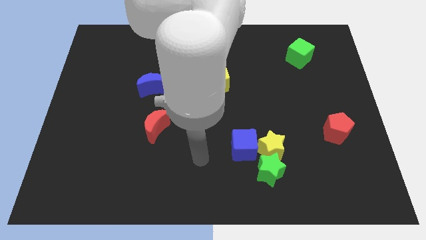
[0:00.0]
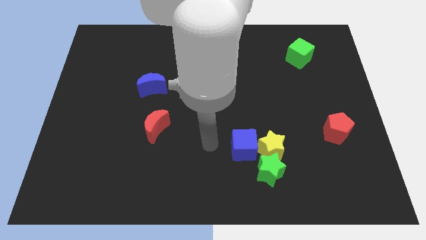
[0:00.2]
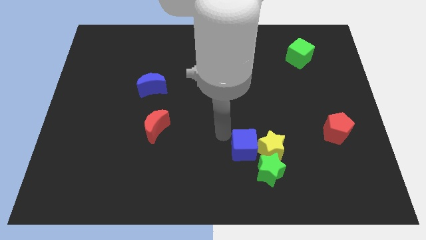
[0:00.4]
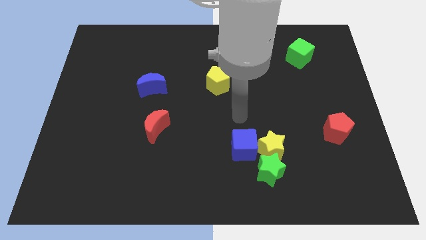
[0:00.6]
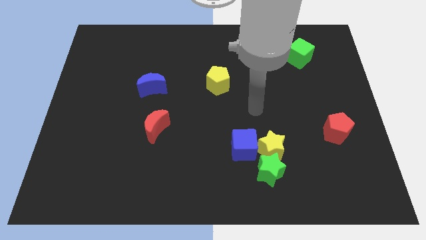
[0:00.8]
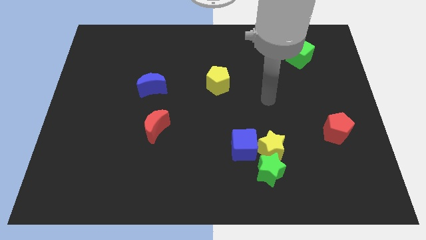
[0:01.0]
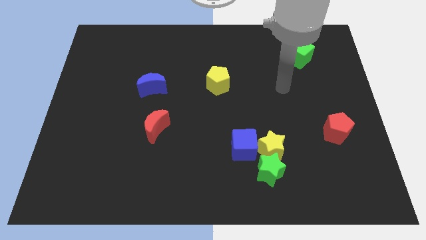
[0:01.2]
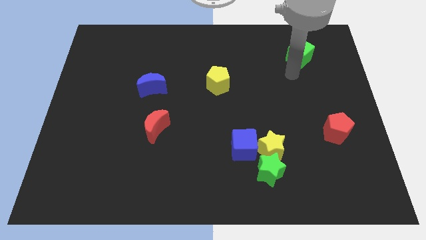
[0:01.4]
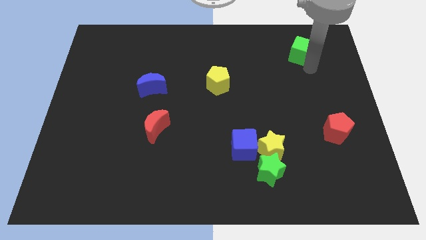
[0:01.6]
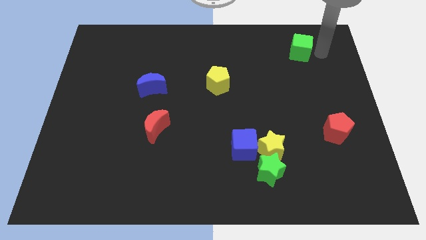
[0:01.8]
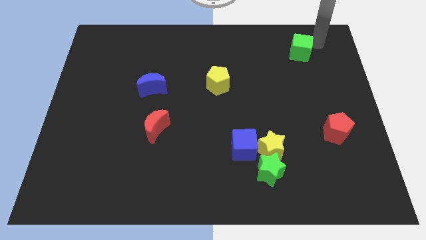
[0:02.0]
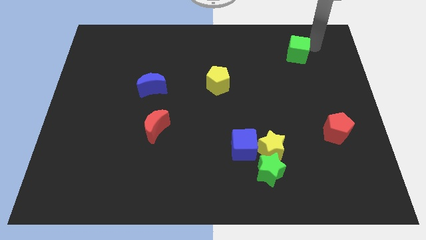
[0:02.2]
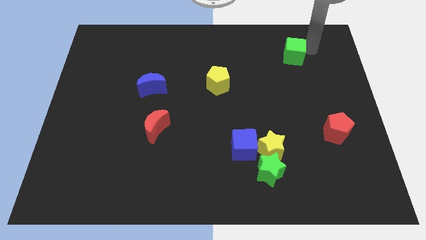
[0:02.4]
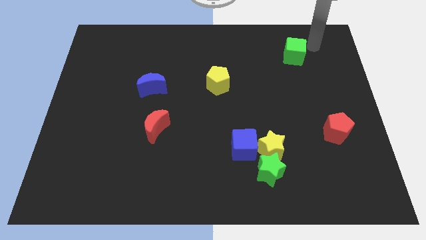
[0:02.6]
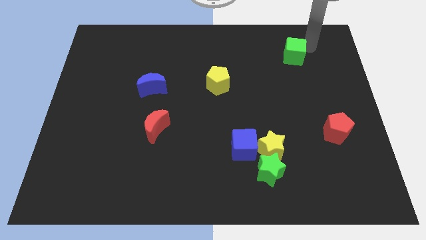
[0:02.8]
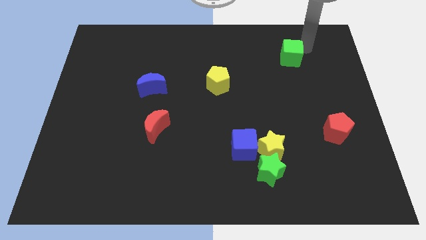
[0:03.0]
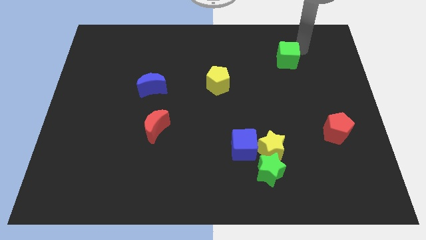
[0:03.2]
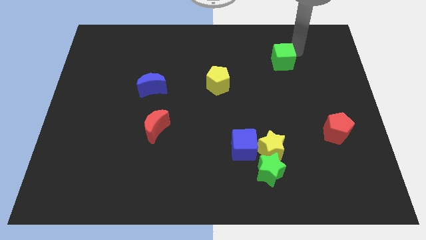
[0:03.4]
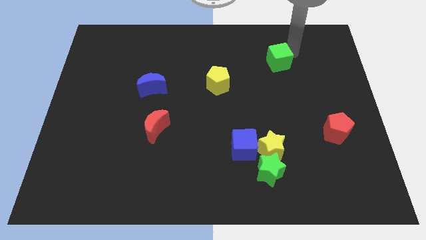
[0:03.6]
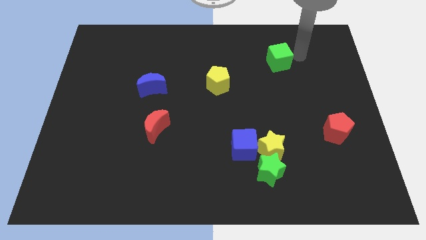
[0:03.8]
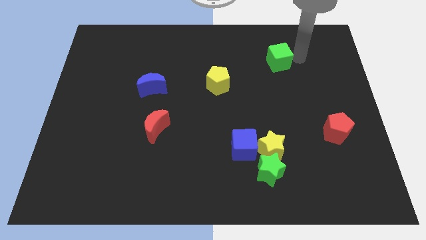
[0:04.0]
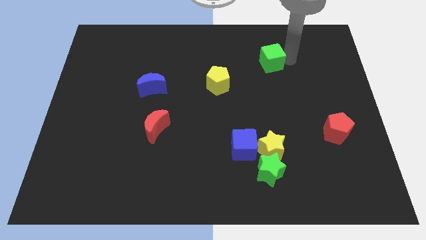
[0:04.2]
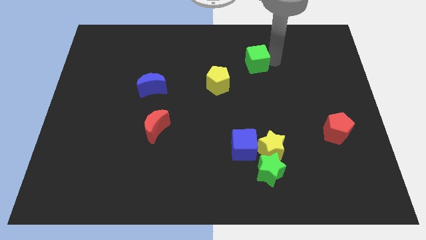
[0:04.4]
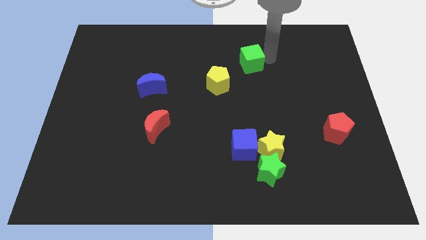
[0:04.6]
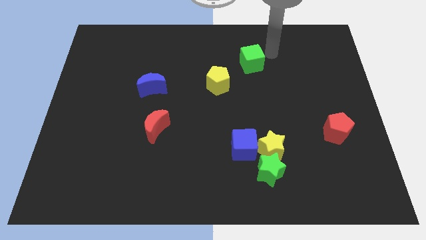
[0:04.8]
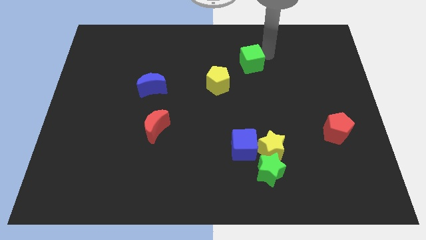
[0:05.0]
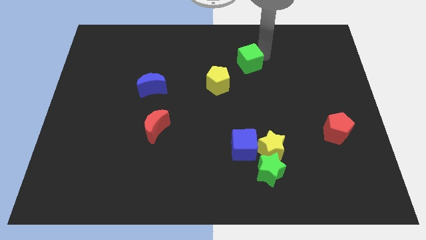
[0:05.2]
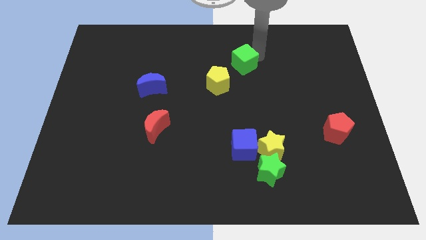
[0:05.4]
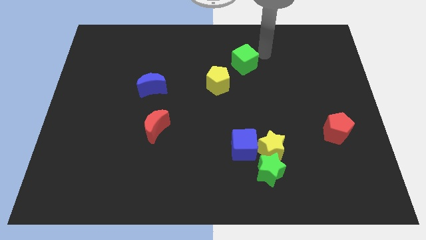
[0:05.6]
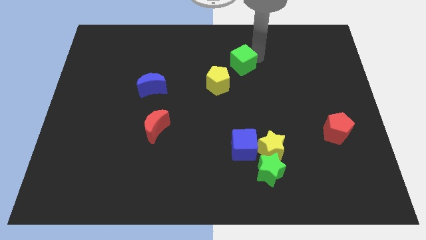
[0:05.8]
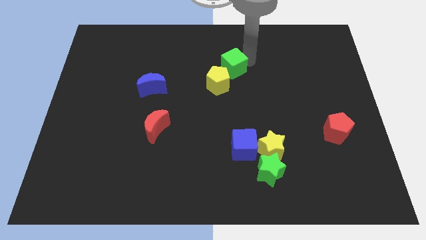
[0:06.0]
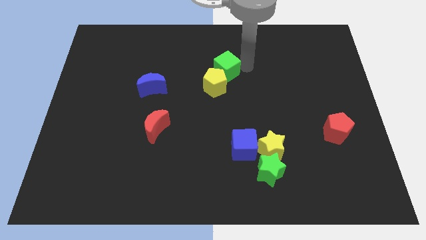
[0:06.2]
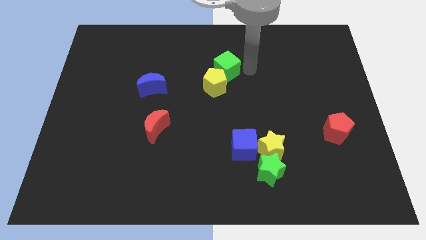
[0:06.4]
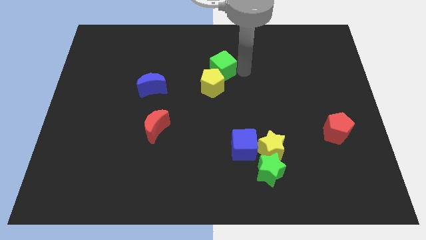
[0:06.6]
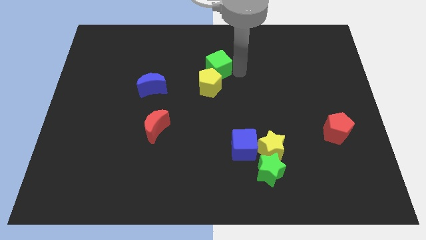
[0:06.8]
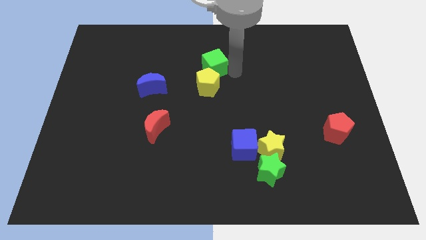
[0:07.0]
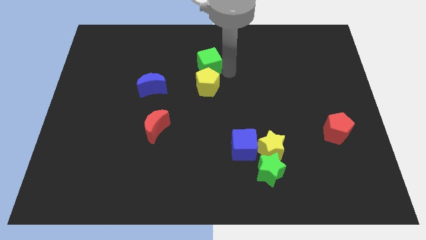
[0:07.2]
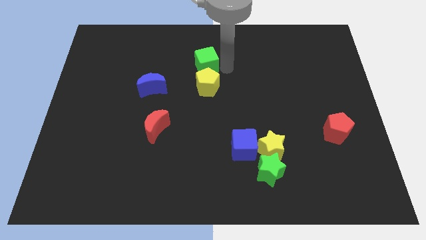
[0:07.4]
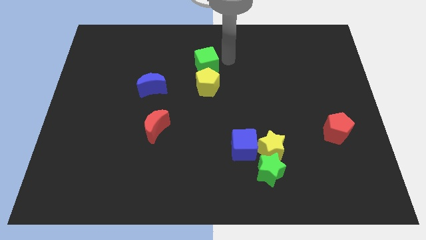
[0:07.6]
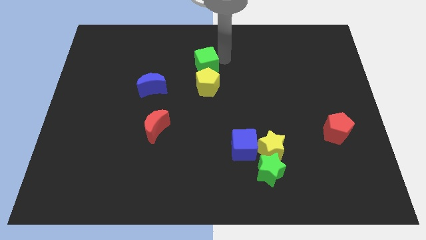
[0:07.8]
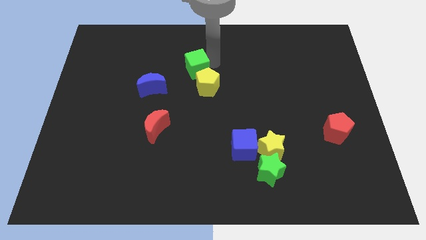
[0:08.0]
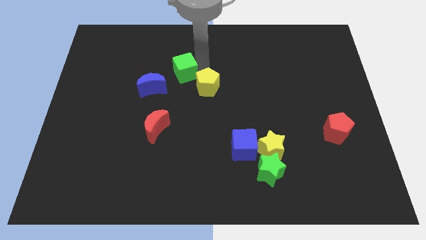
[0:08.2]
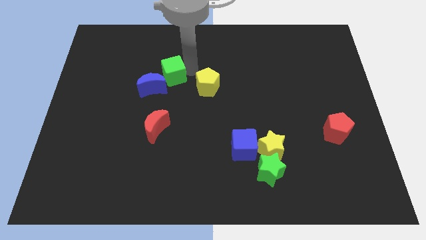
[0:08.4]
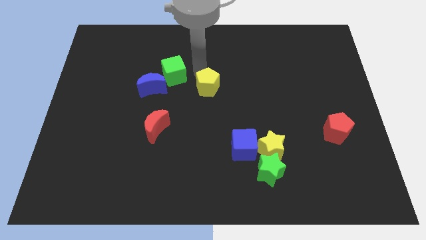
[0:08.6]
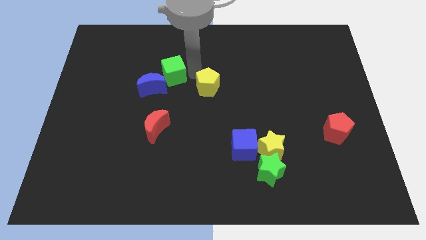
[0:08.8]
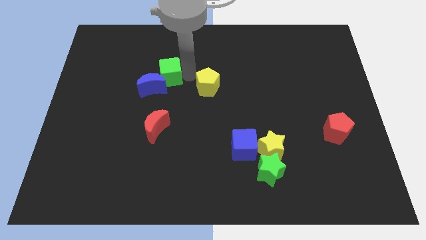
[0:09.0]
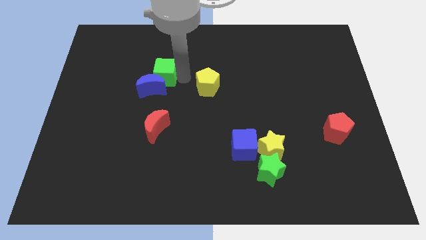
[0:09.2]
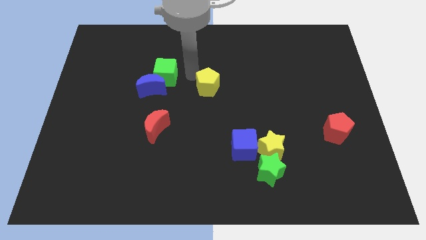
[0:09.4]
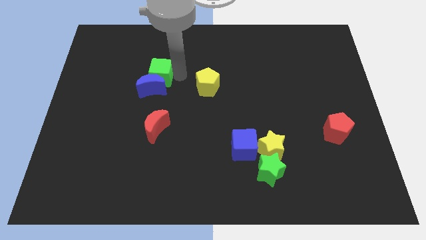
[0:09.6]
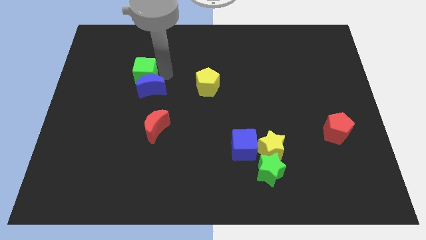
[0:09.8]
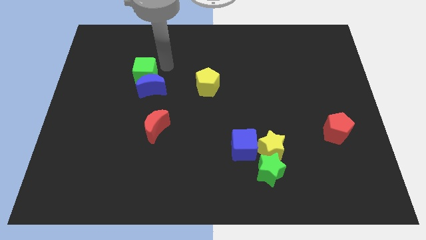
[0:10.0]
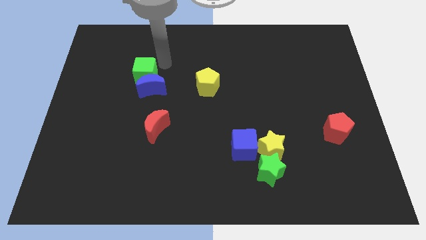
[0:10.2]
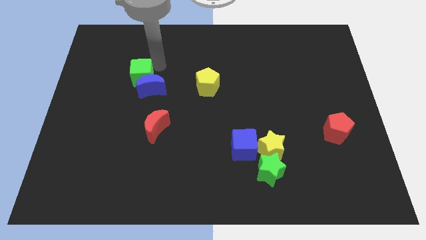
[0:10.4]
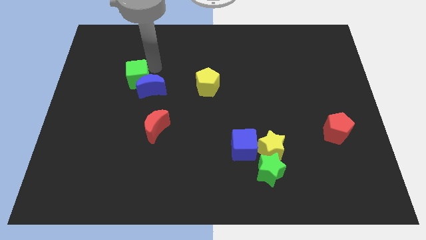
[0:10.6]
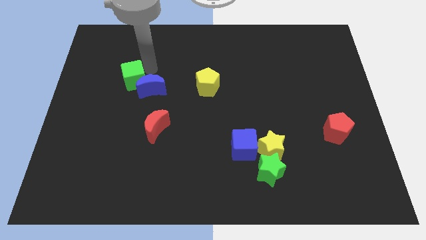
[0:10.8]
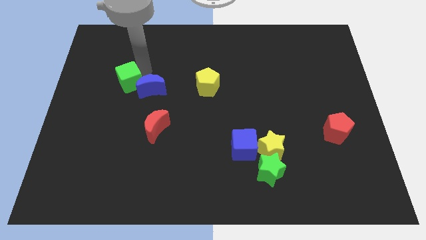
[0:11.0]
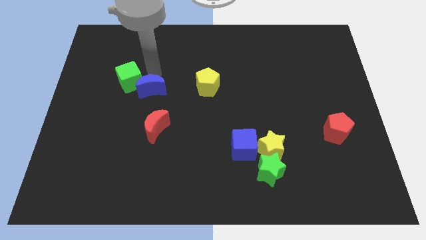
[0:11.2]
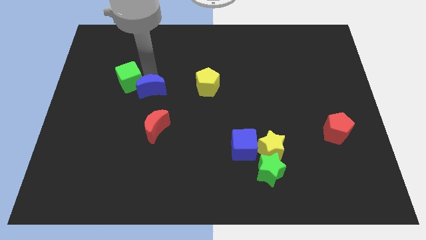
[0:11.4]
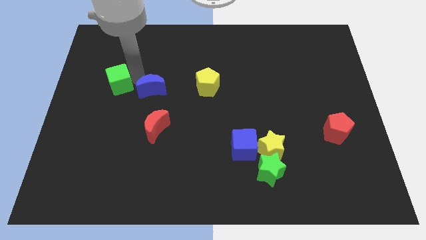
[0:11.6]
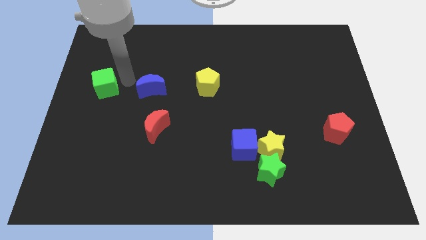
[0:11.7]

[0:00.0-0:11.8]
slide the green cube to the left side of the board
